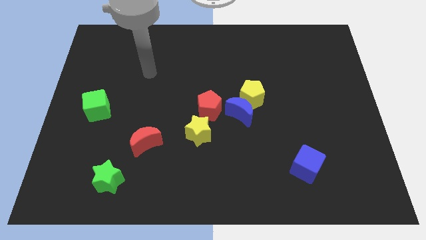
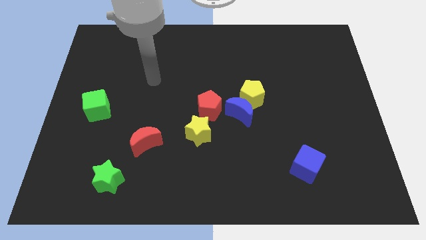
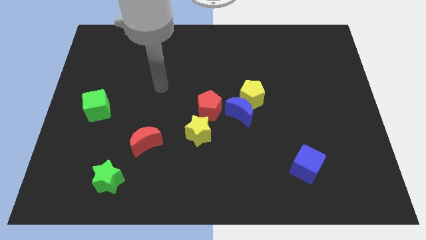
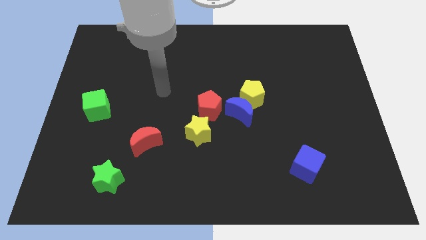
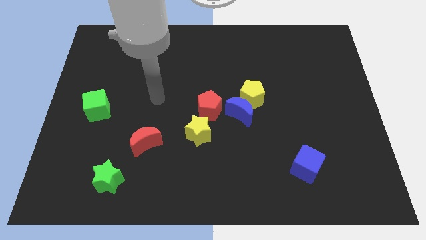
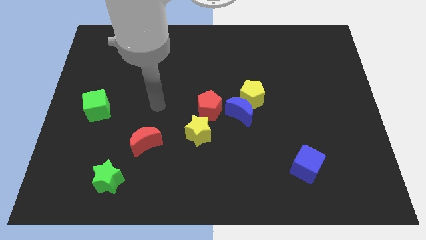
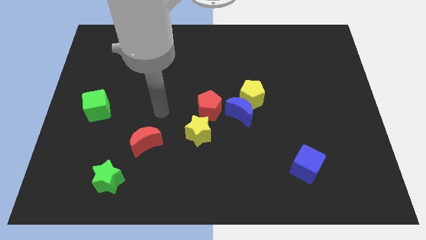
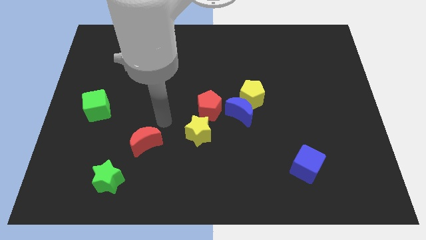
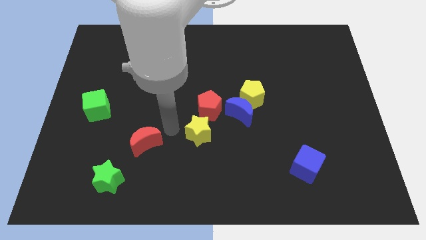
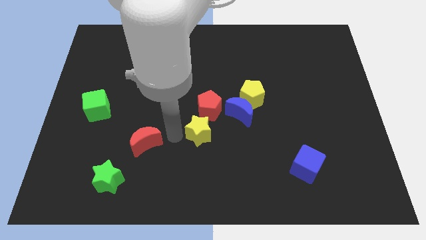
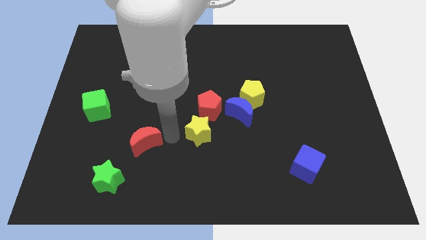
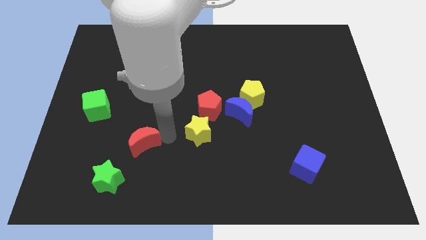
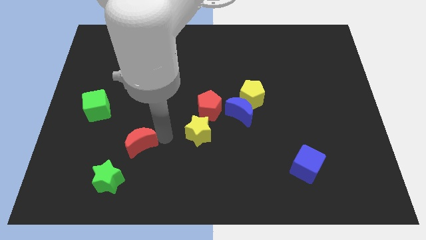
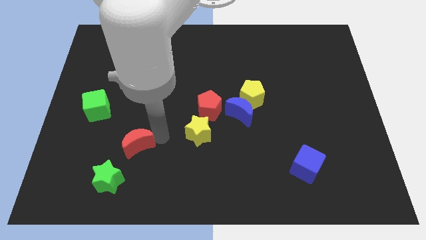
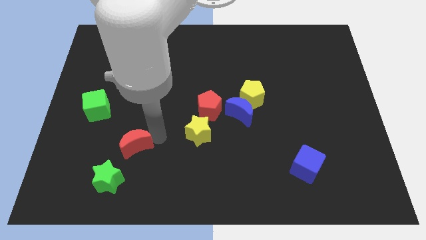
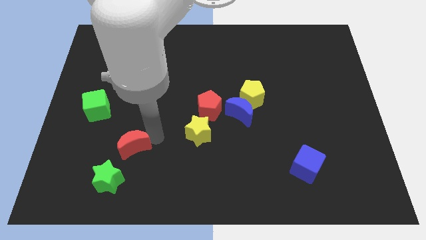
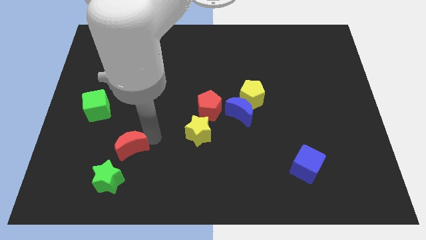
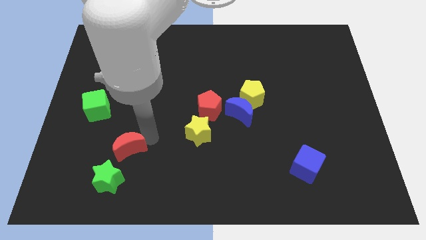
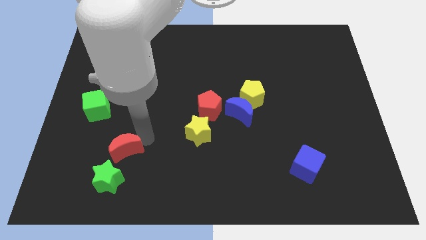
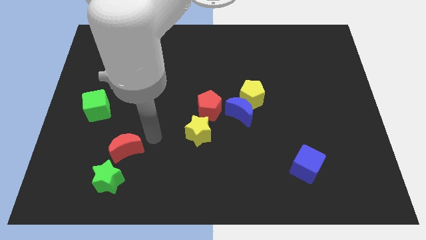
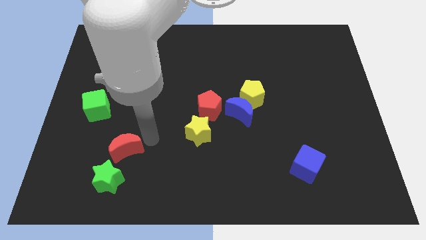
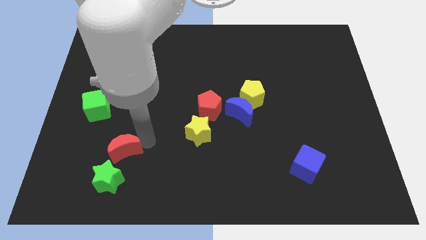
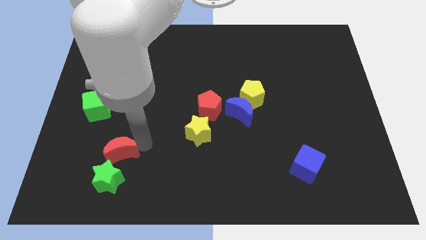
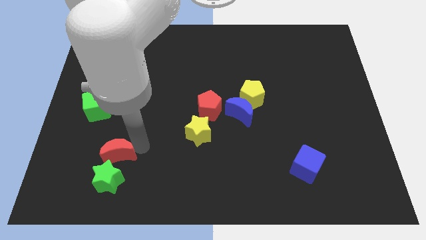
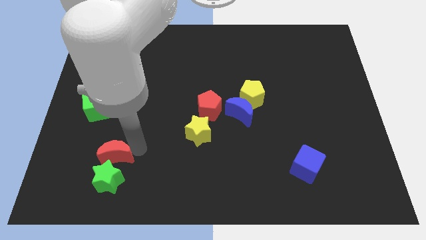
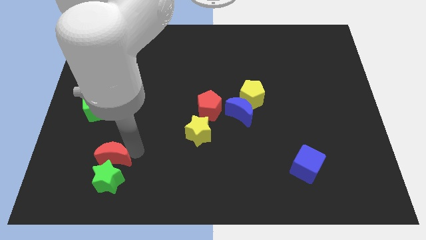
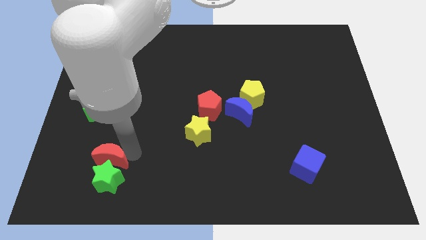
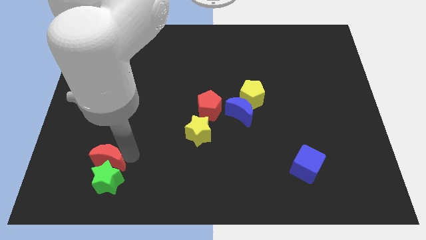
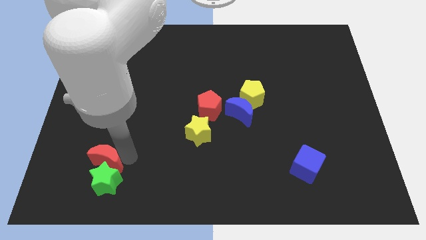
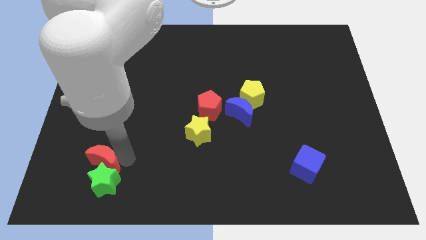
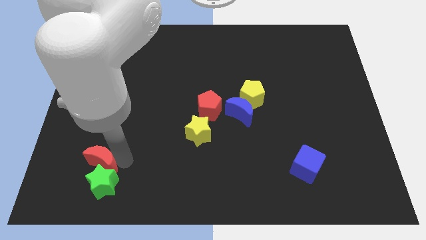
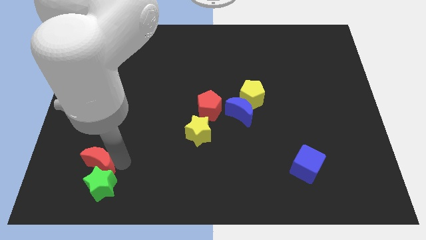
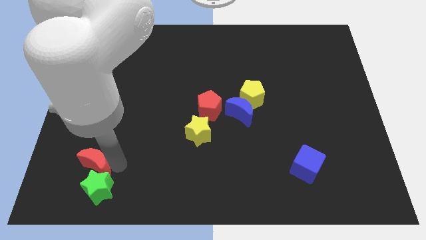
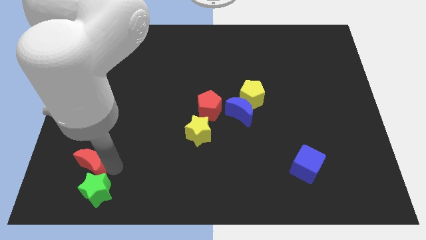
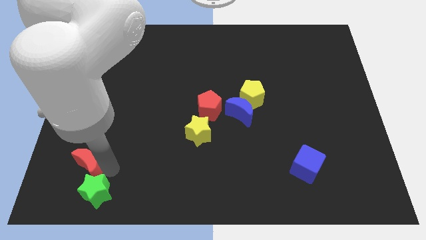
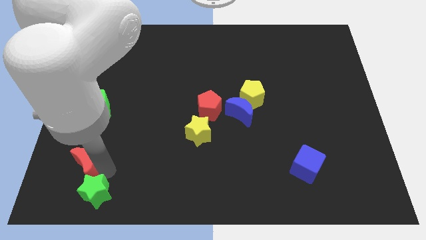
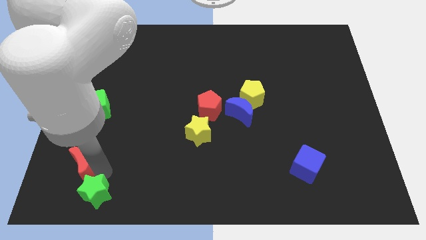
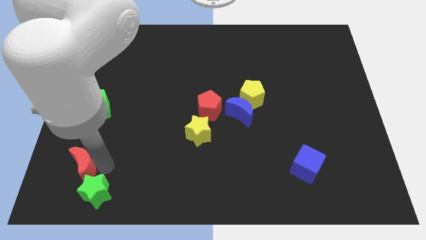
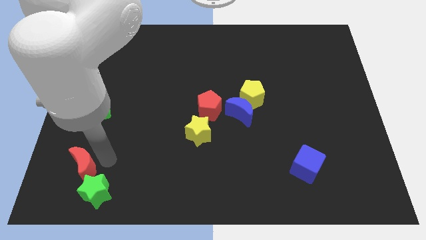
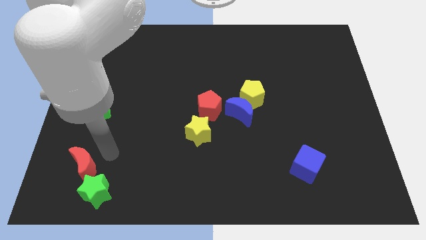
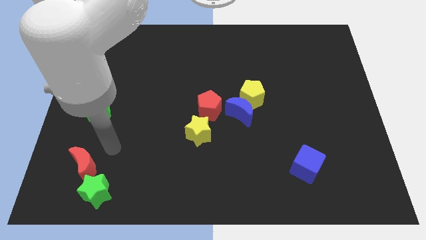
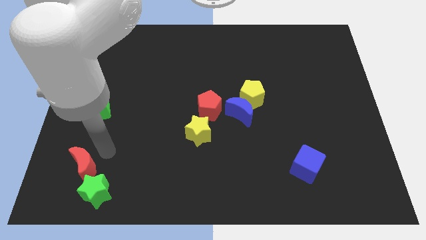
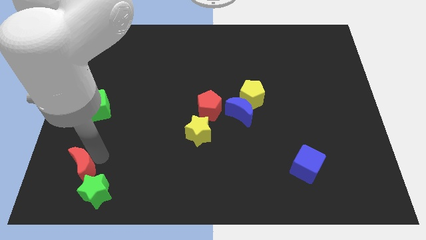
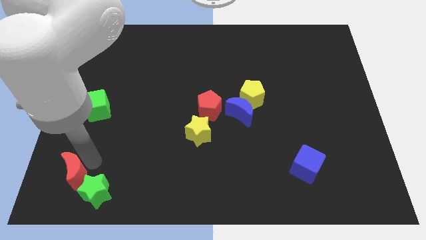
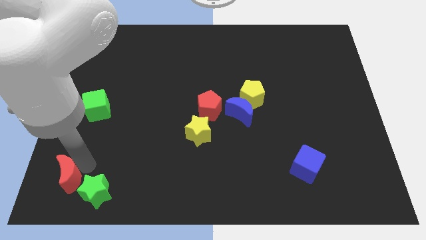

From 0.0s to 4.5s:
slide the red moon to the bottom left

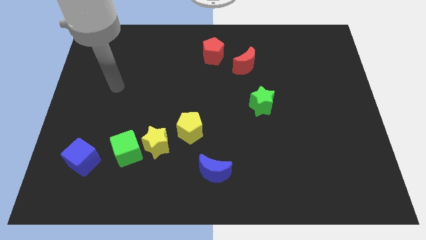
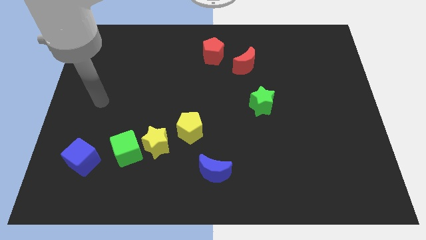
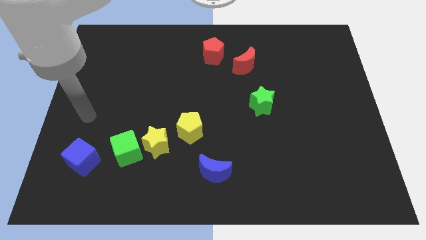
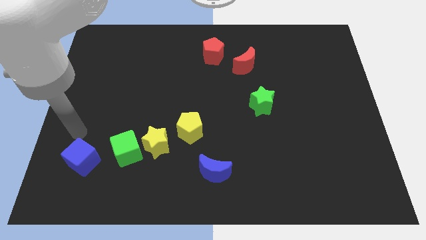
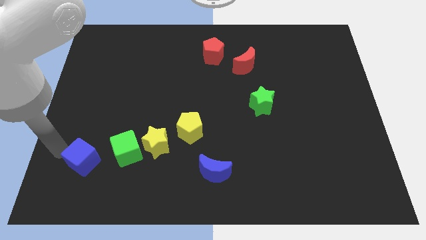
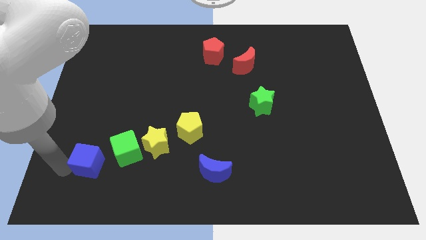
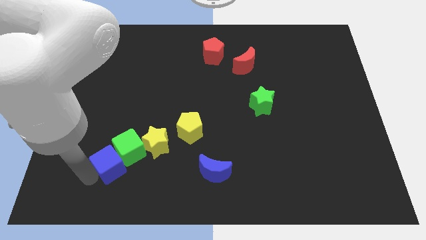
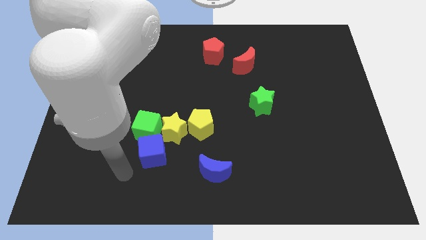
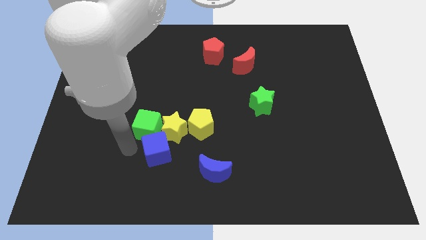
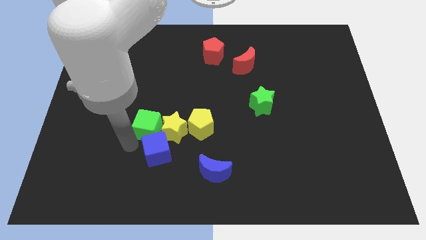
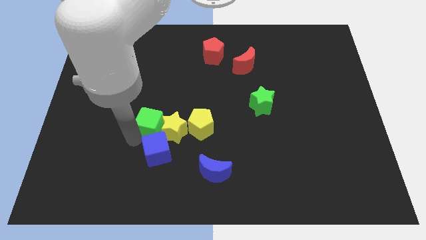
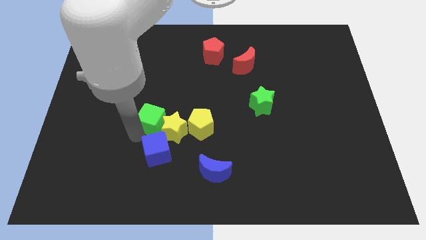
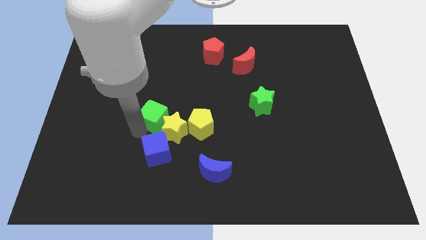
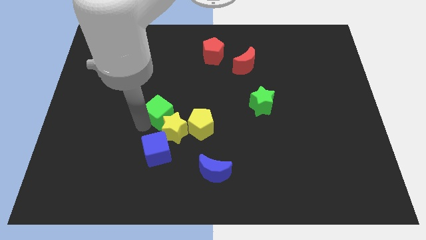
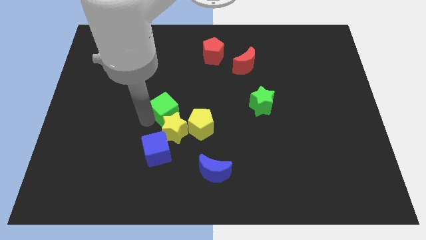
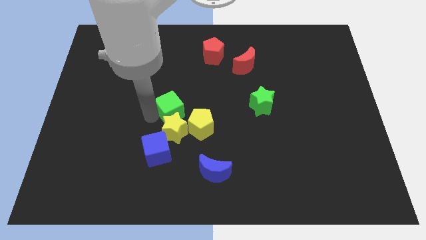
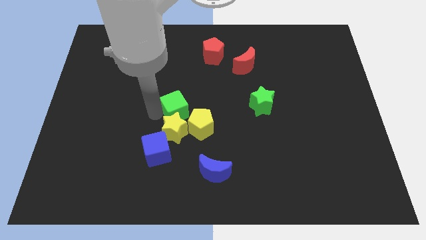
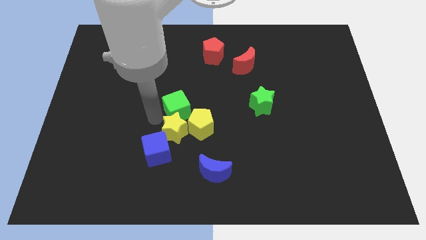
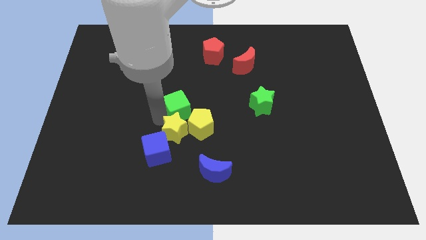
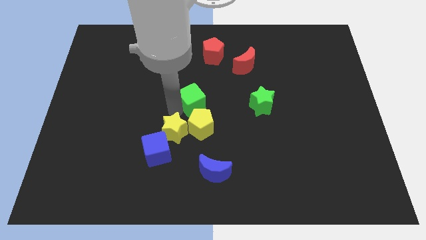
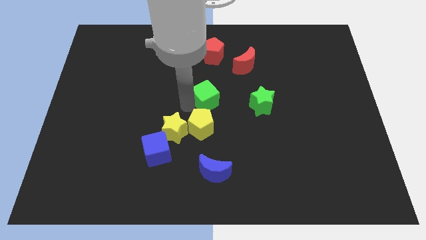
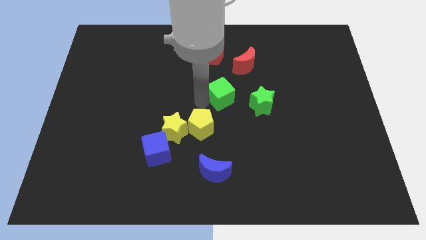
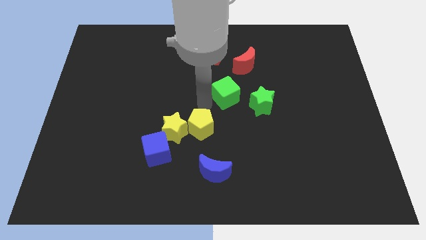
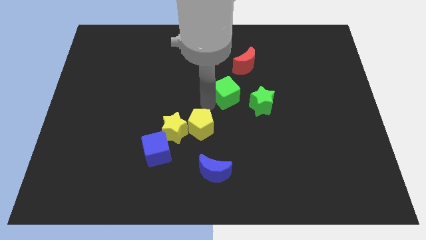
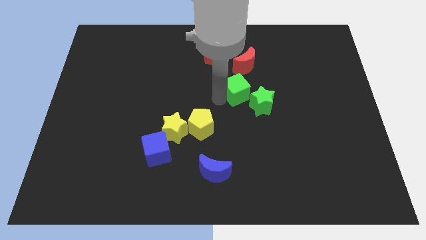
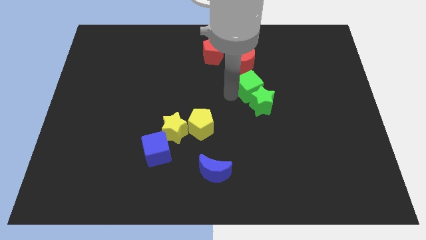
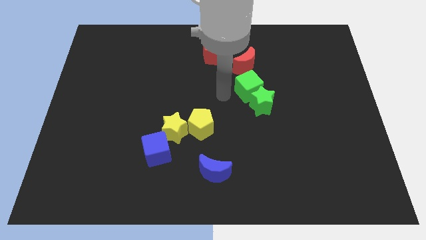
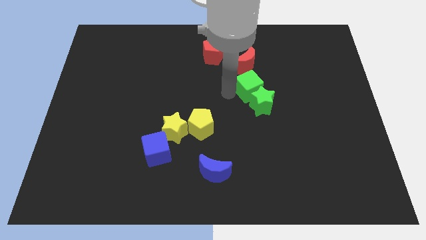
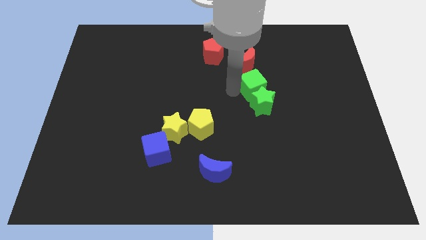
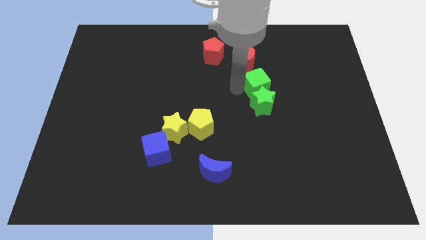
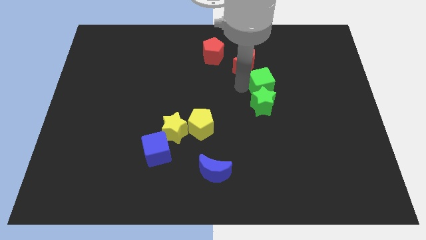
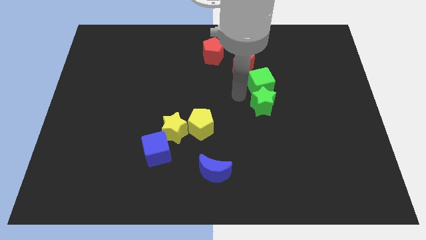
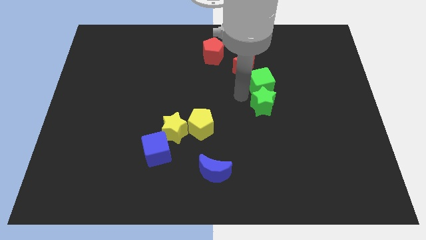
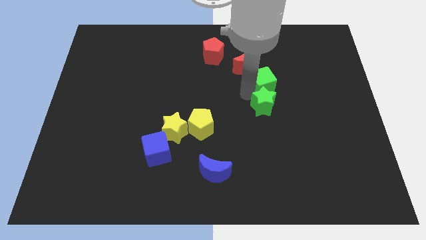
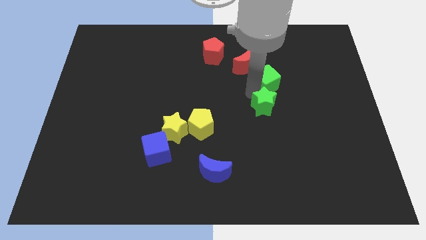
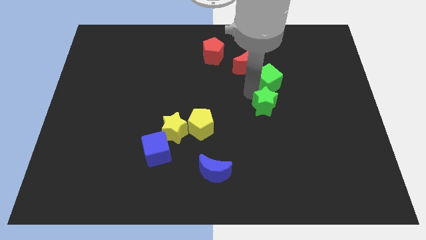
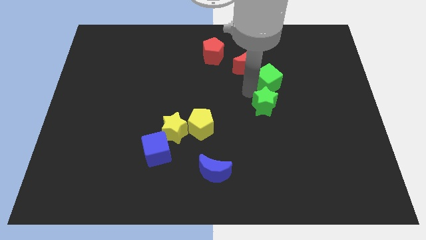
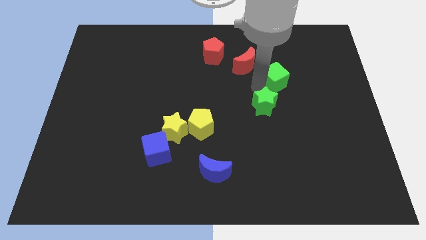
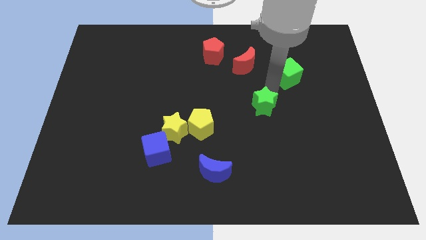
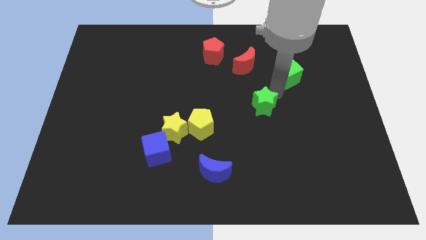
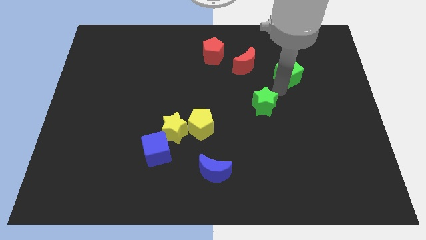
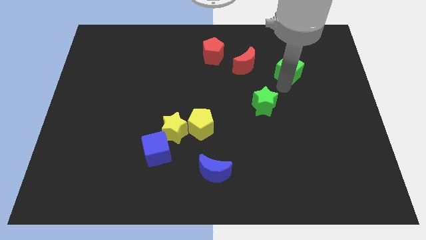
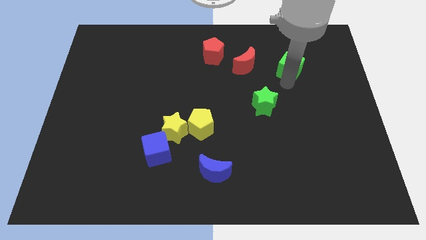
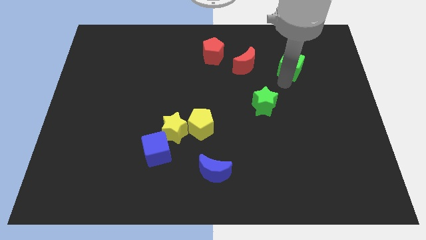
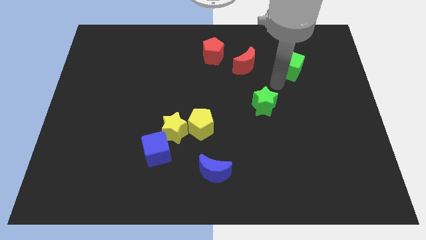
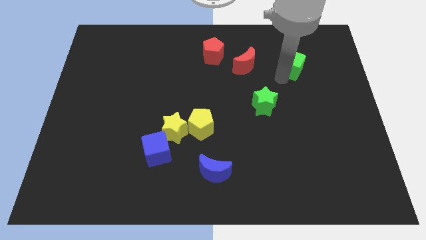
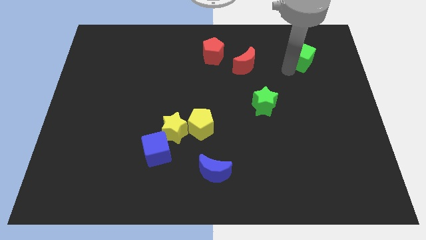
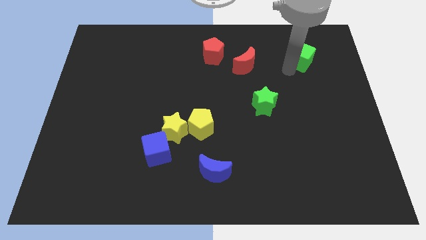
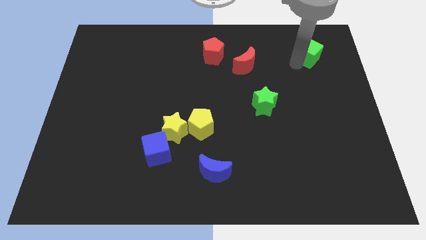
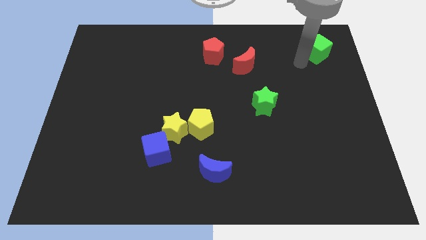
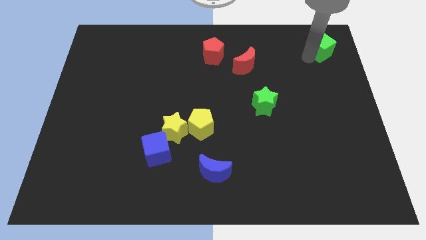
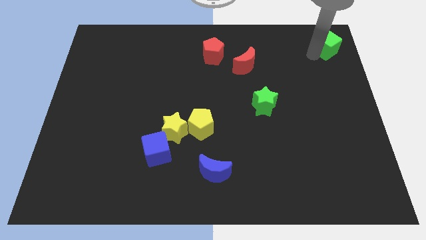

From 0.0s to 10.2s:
slide the green cube to the top right of the board
